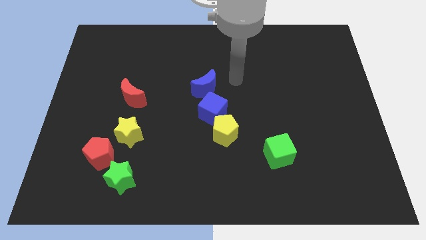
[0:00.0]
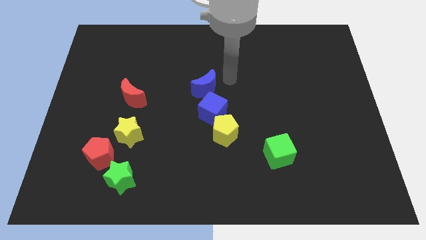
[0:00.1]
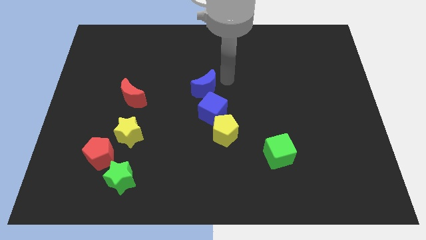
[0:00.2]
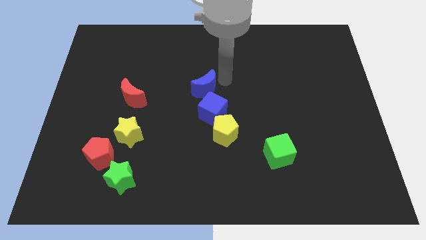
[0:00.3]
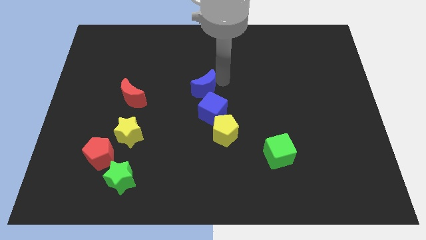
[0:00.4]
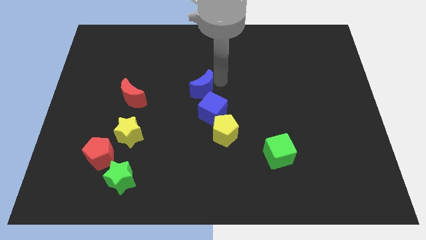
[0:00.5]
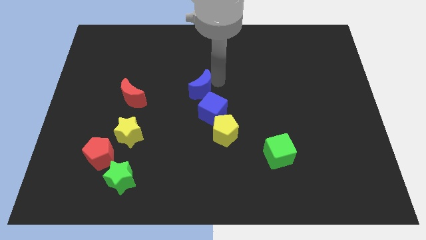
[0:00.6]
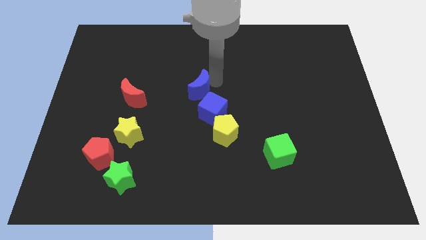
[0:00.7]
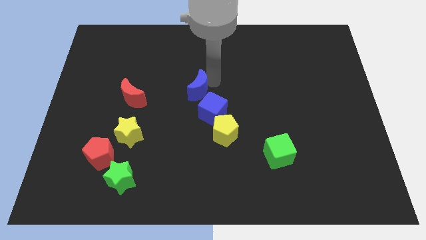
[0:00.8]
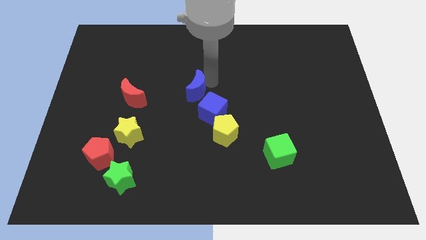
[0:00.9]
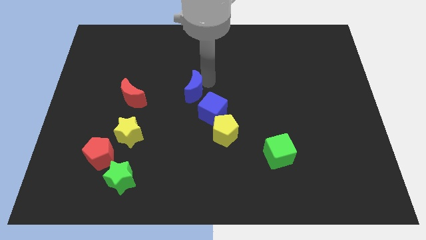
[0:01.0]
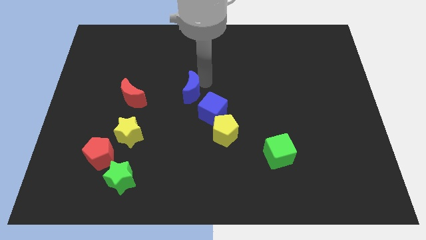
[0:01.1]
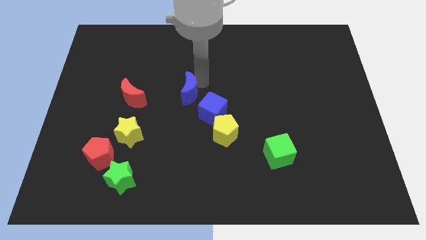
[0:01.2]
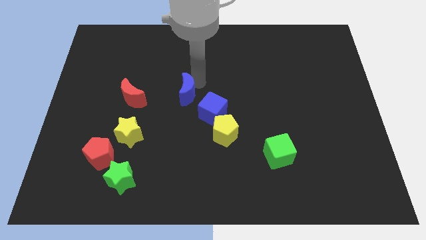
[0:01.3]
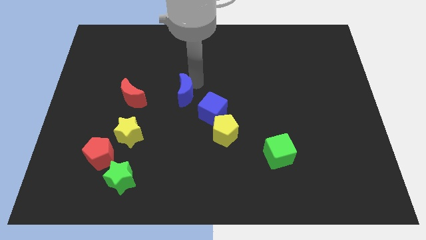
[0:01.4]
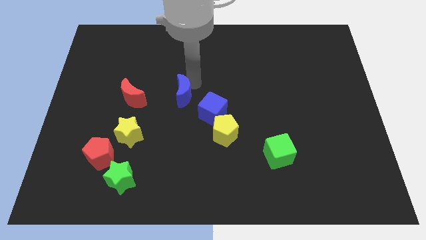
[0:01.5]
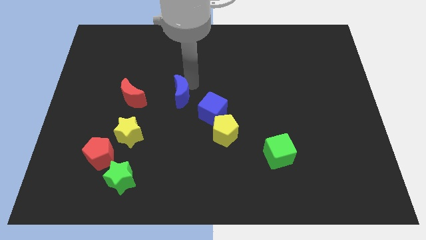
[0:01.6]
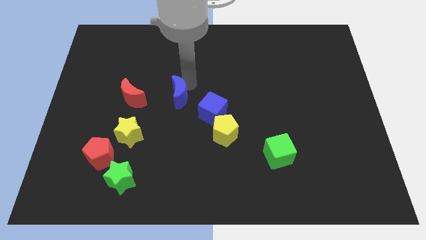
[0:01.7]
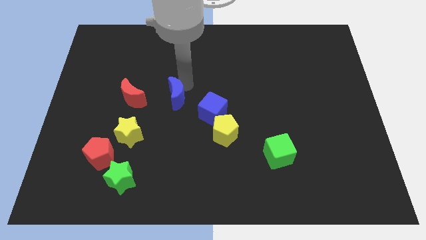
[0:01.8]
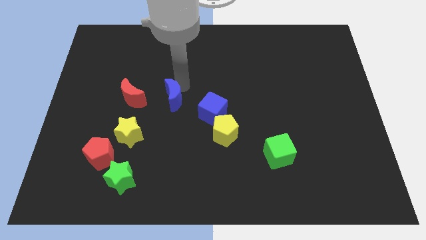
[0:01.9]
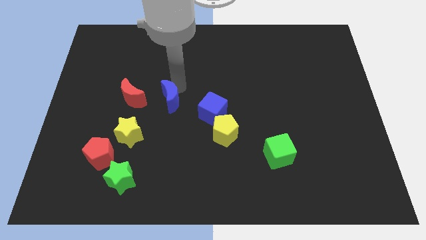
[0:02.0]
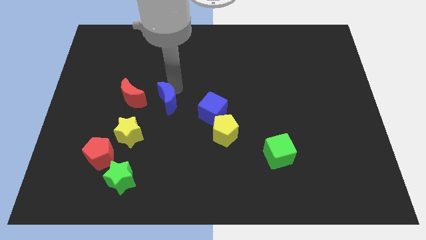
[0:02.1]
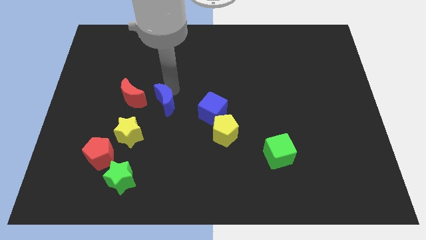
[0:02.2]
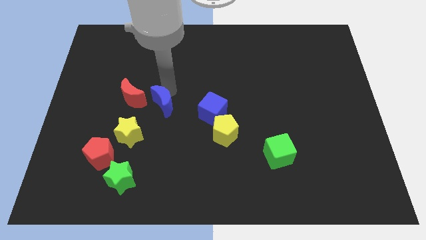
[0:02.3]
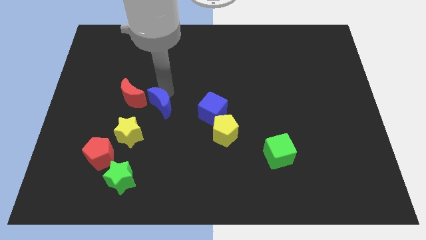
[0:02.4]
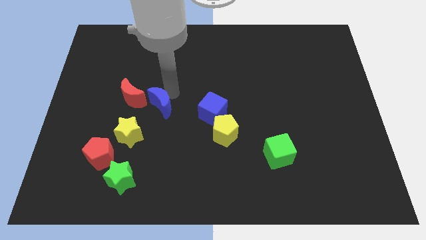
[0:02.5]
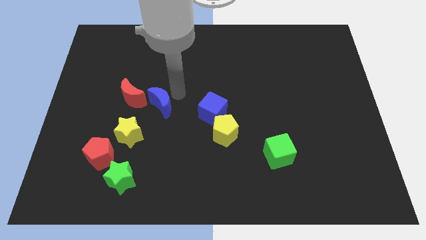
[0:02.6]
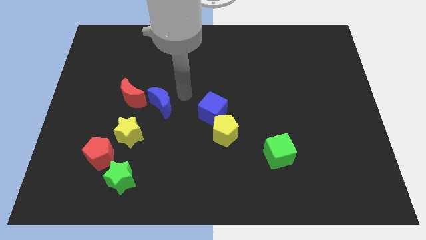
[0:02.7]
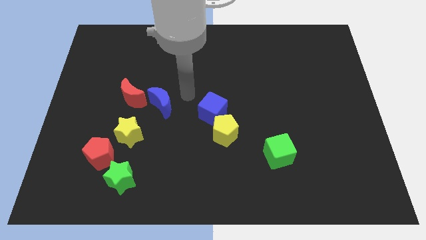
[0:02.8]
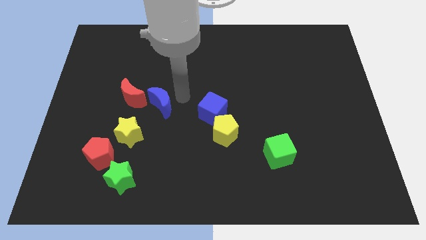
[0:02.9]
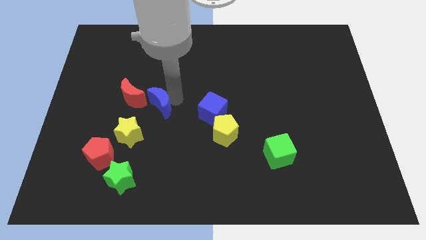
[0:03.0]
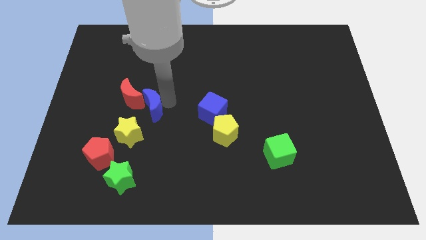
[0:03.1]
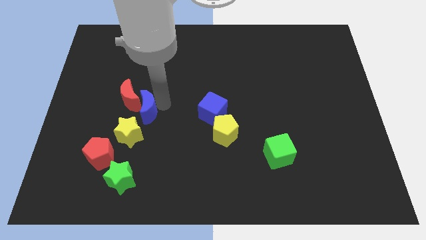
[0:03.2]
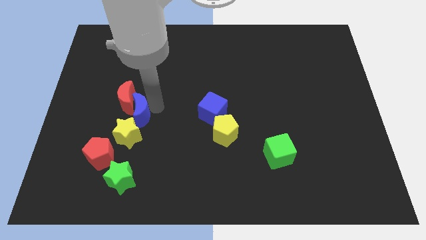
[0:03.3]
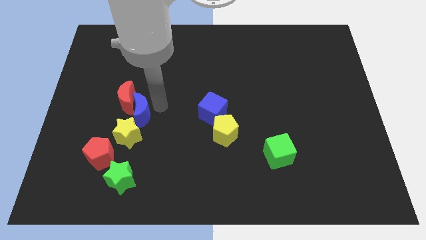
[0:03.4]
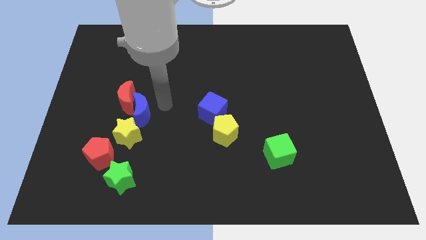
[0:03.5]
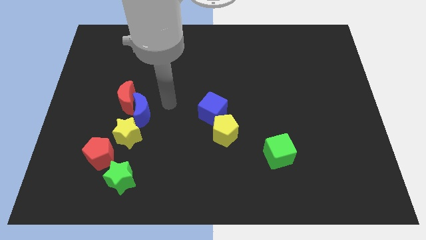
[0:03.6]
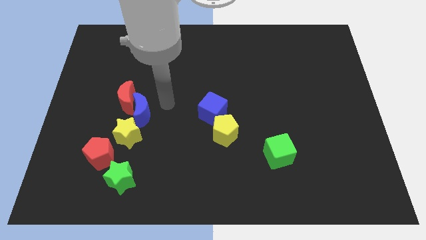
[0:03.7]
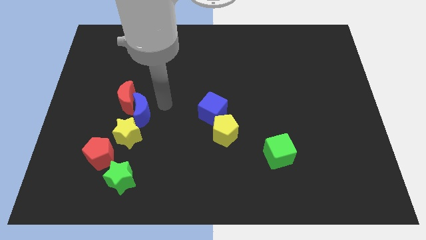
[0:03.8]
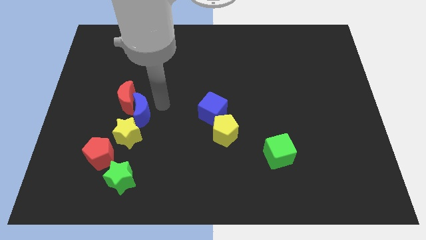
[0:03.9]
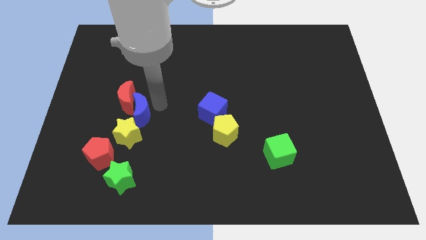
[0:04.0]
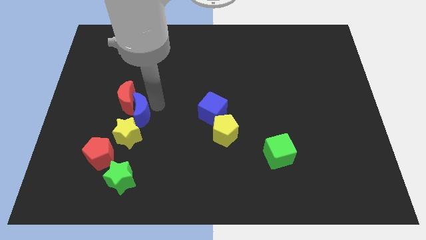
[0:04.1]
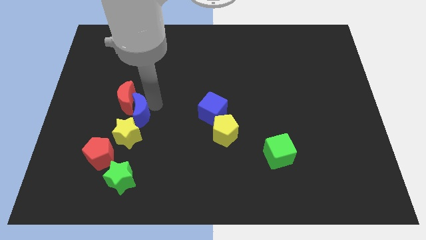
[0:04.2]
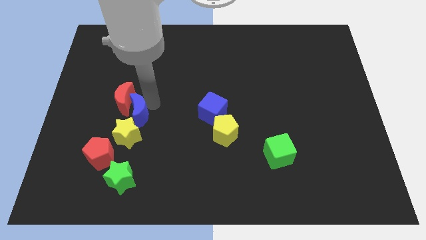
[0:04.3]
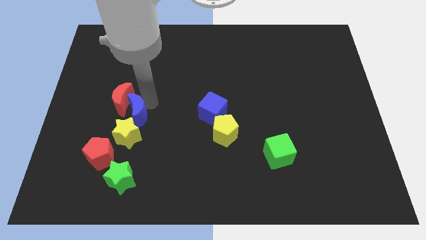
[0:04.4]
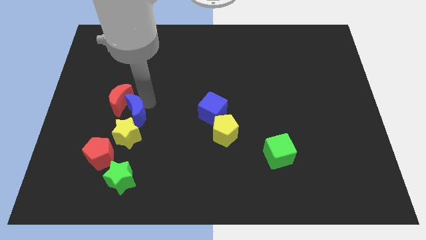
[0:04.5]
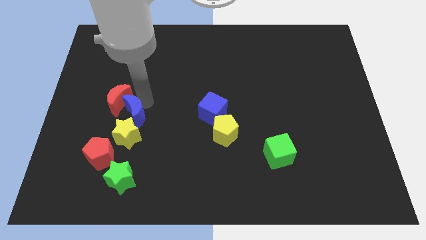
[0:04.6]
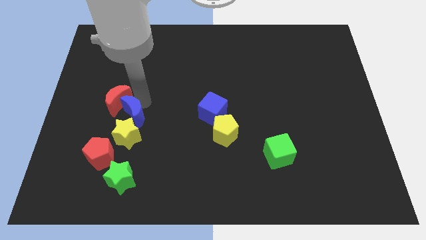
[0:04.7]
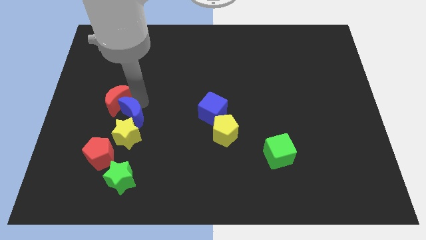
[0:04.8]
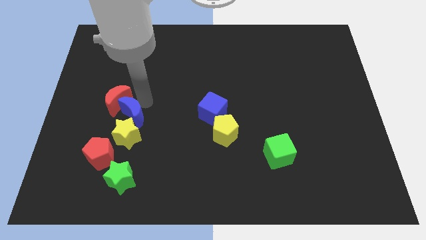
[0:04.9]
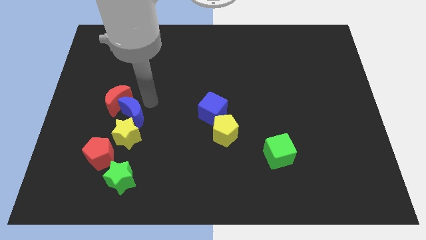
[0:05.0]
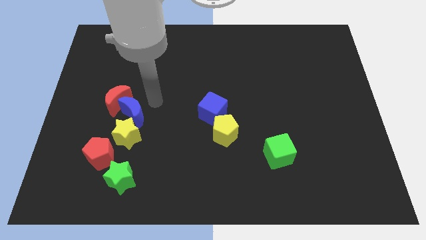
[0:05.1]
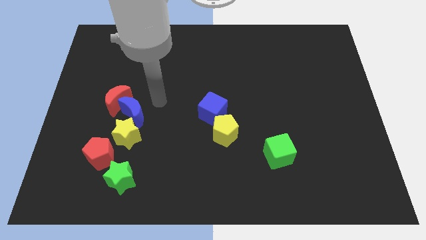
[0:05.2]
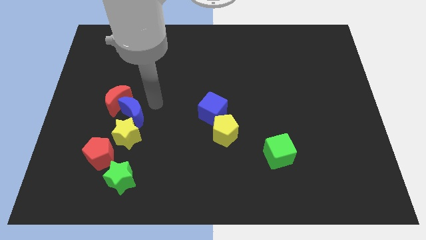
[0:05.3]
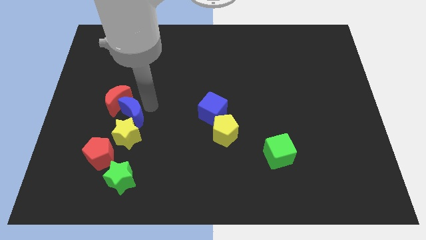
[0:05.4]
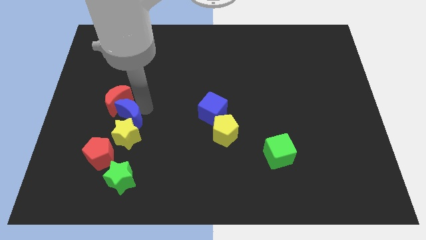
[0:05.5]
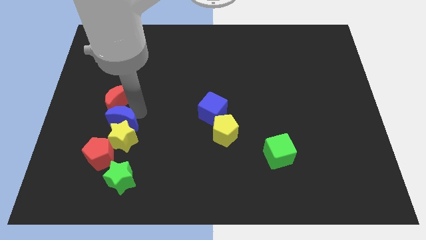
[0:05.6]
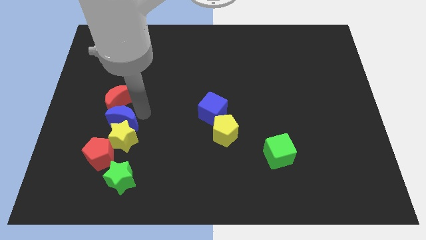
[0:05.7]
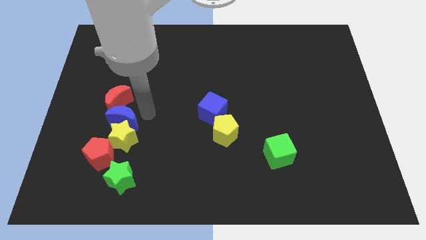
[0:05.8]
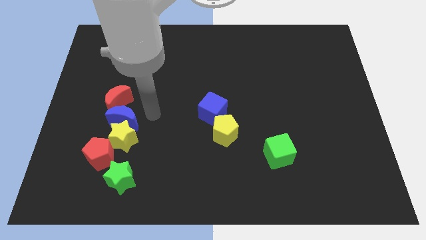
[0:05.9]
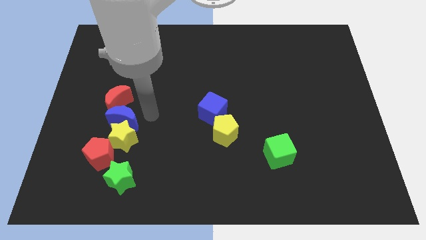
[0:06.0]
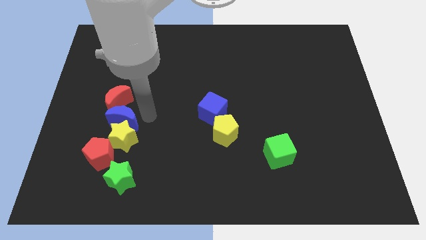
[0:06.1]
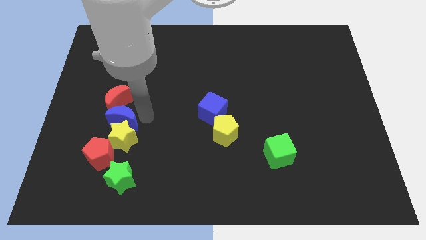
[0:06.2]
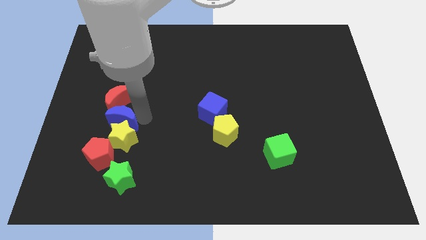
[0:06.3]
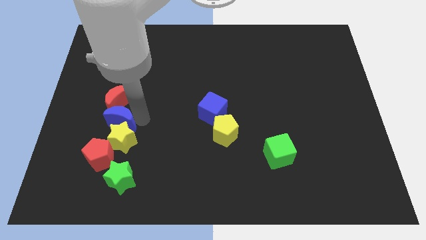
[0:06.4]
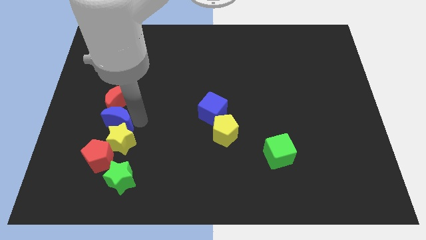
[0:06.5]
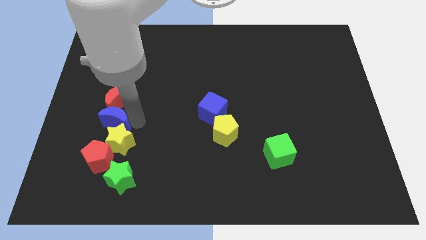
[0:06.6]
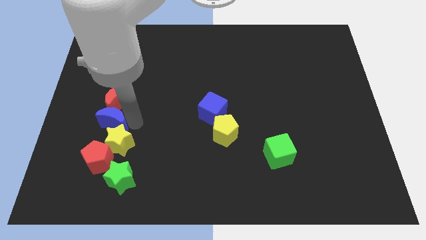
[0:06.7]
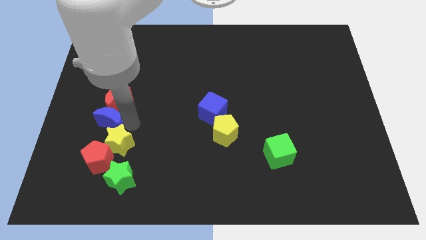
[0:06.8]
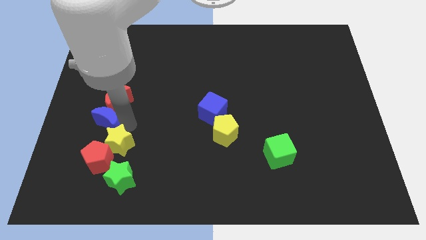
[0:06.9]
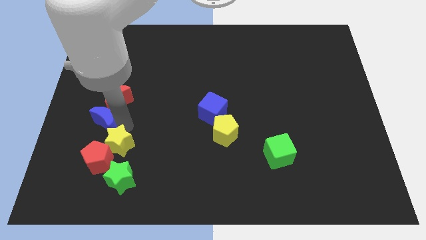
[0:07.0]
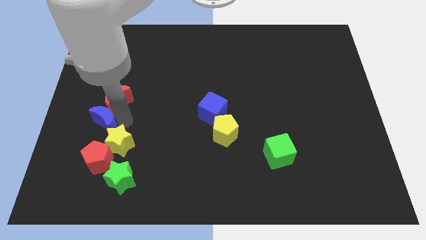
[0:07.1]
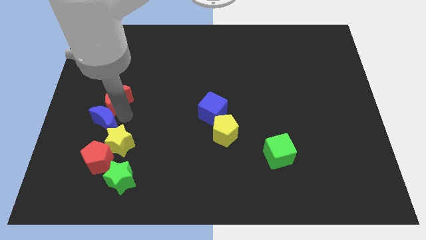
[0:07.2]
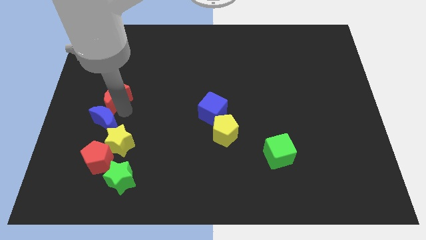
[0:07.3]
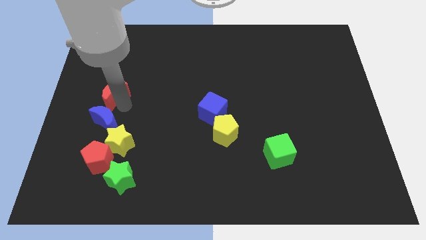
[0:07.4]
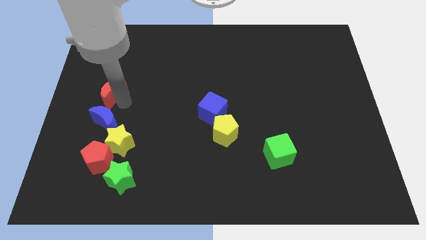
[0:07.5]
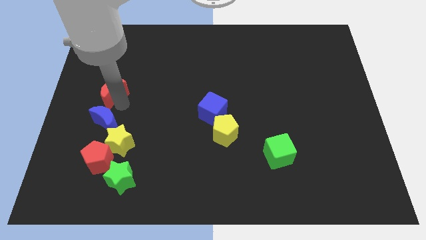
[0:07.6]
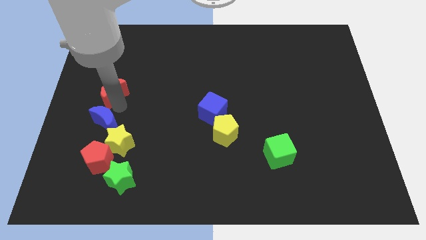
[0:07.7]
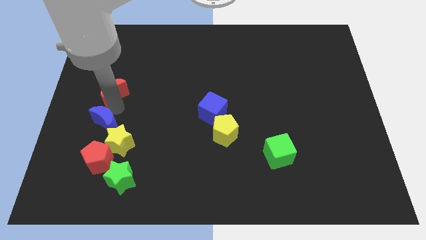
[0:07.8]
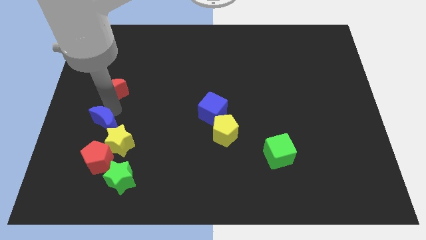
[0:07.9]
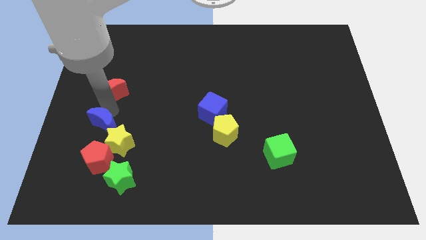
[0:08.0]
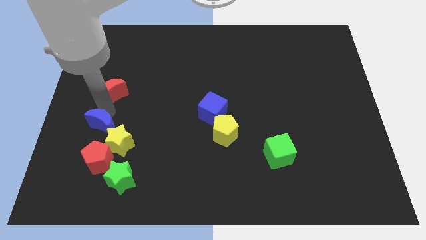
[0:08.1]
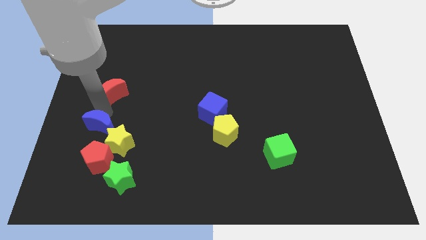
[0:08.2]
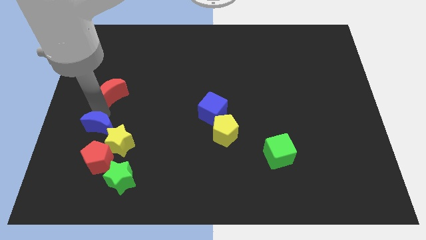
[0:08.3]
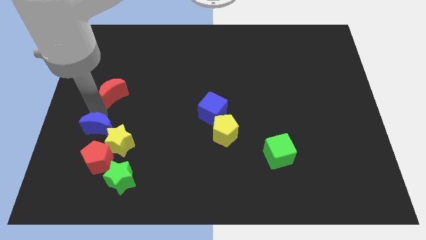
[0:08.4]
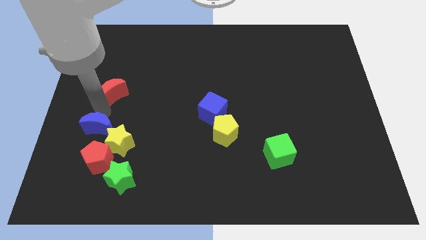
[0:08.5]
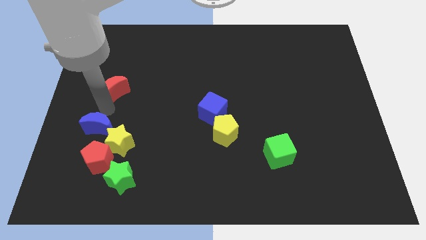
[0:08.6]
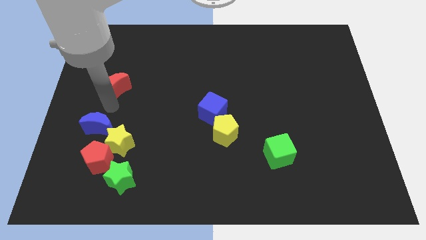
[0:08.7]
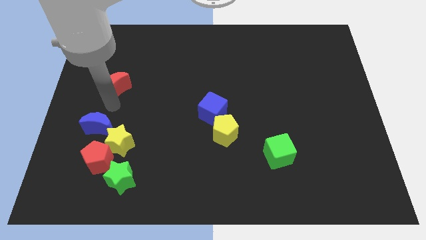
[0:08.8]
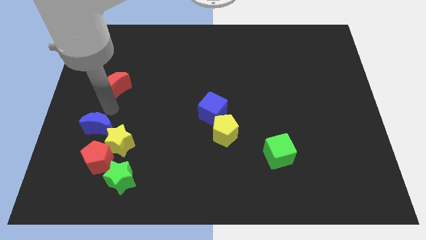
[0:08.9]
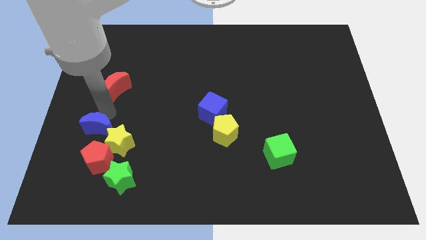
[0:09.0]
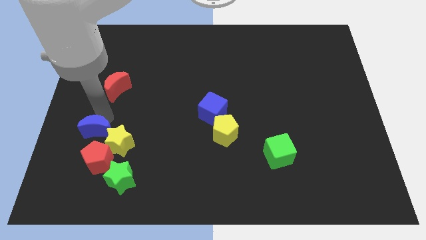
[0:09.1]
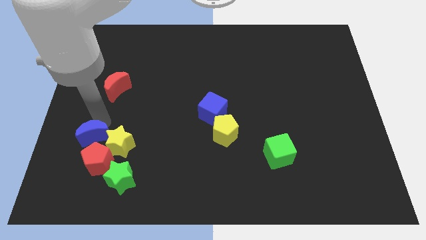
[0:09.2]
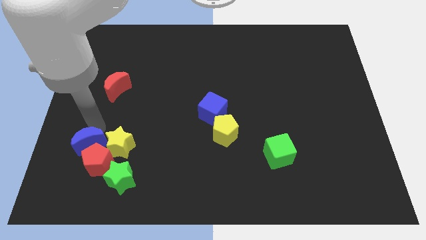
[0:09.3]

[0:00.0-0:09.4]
slide the blue moon to the red pentagon
